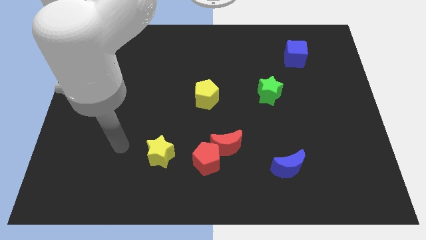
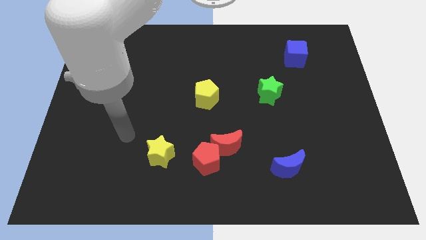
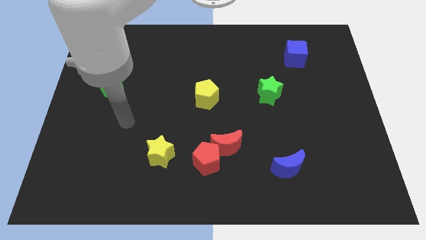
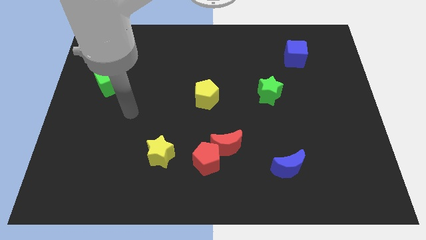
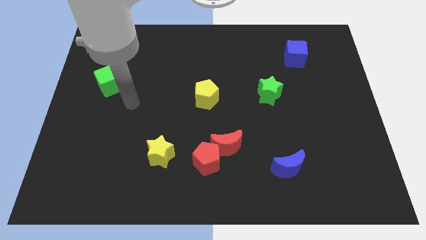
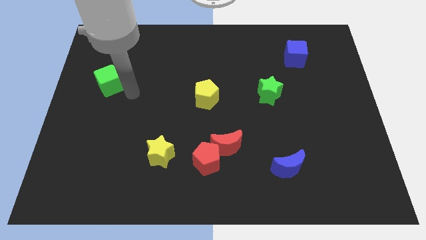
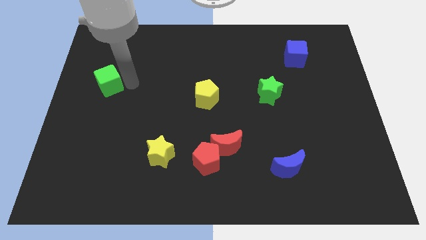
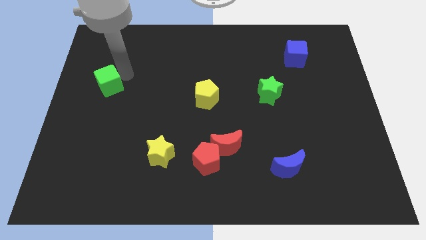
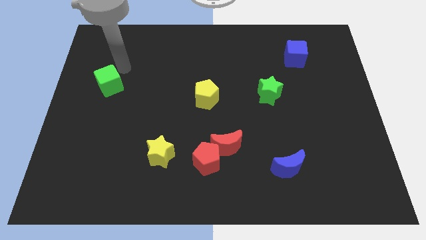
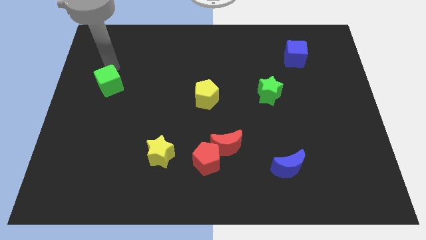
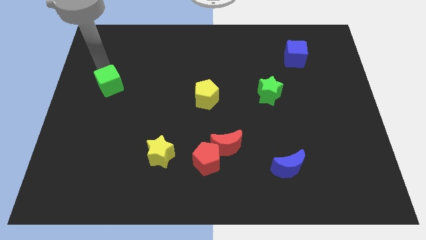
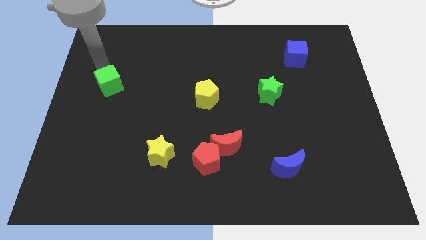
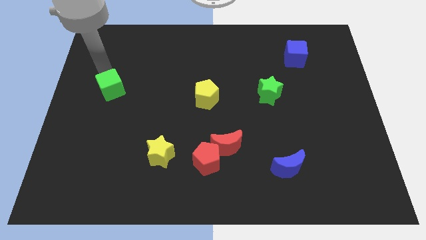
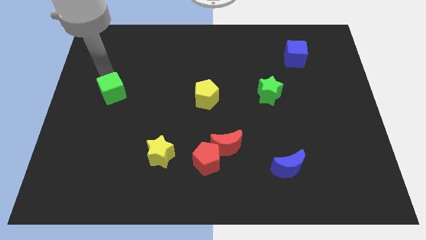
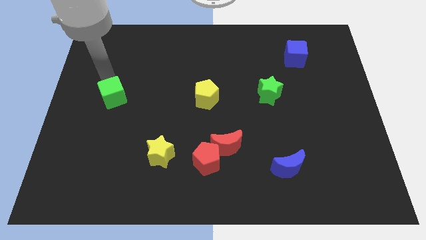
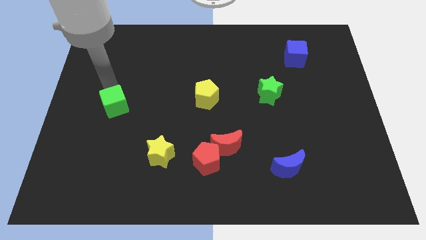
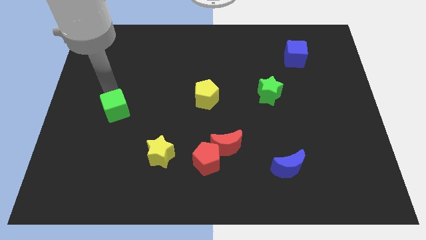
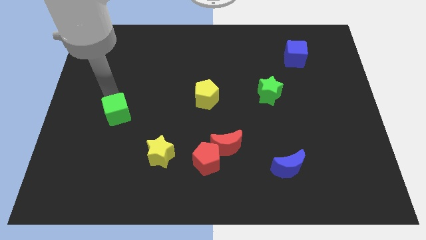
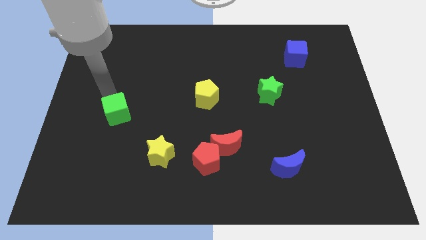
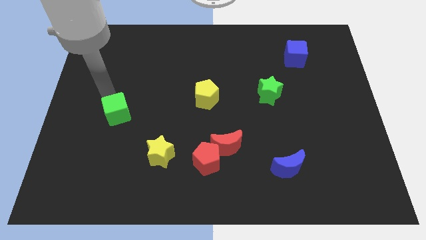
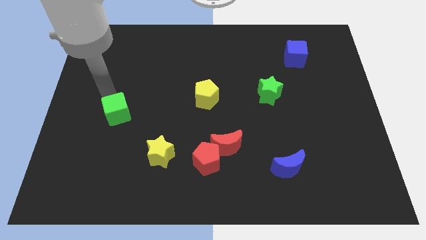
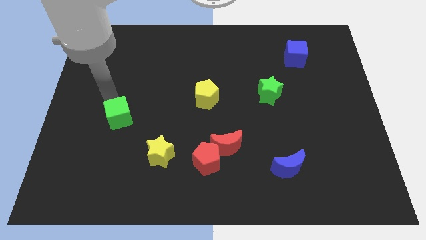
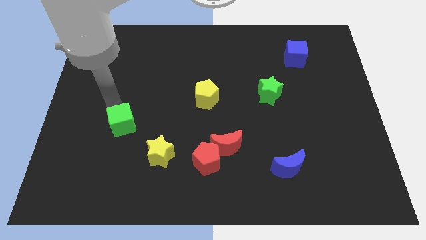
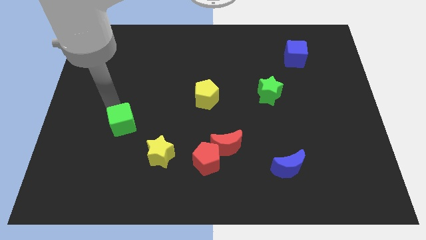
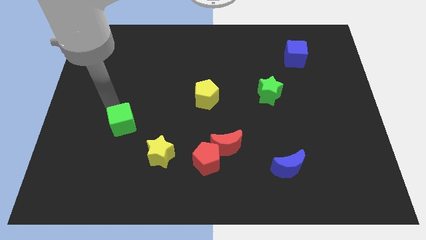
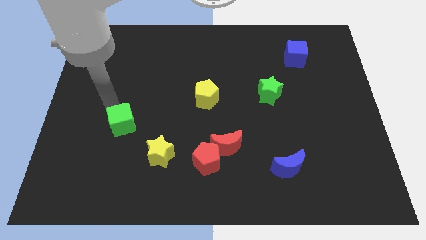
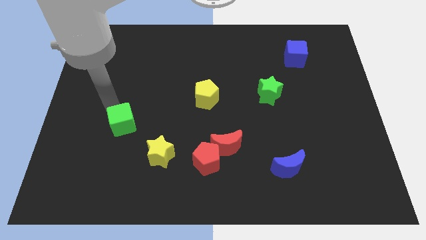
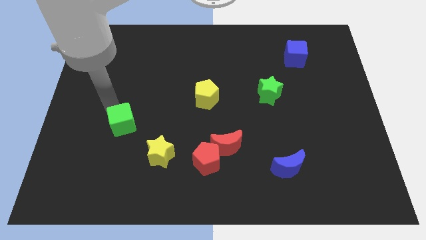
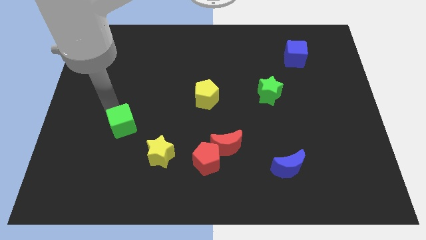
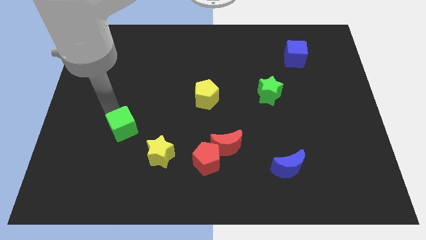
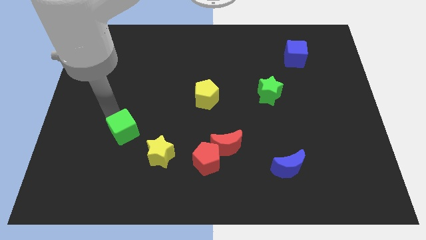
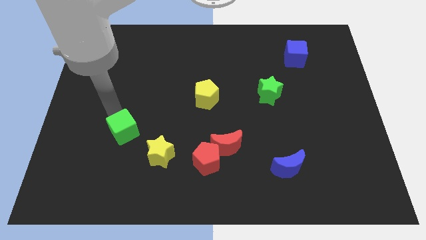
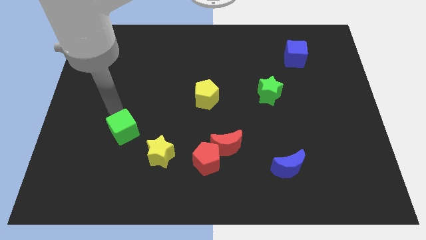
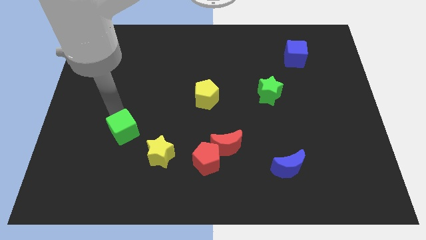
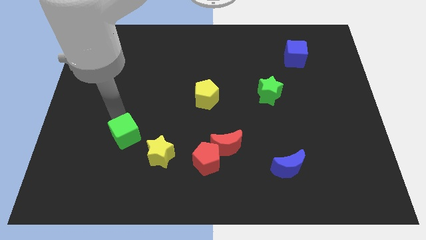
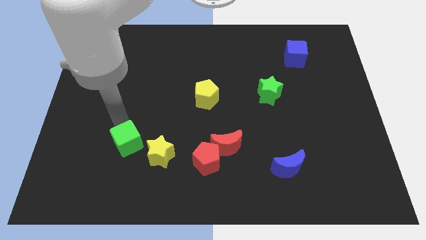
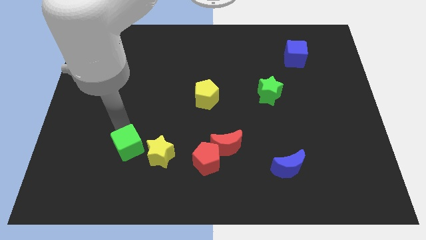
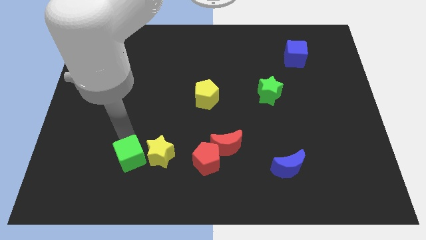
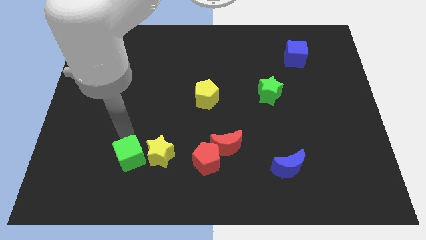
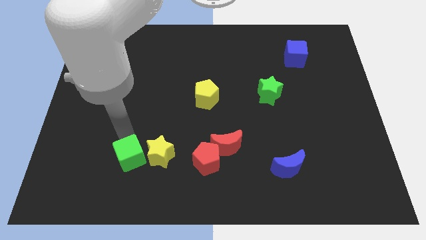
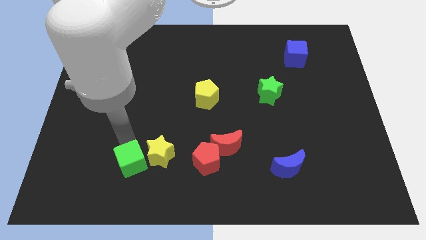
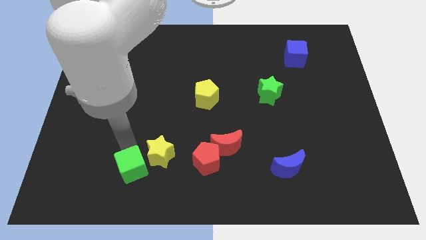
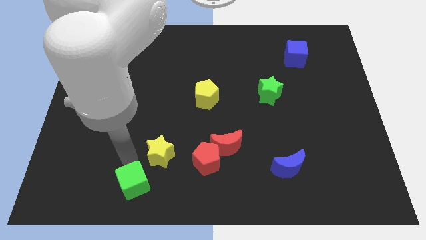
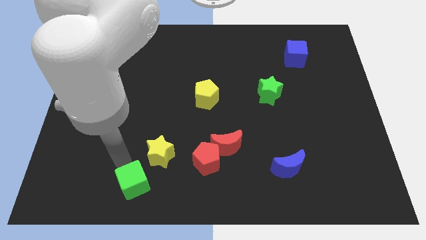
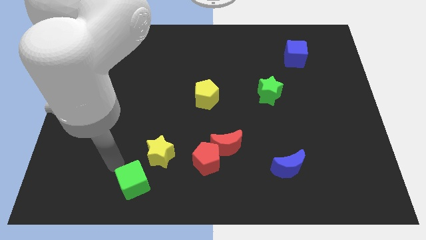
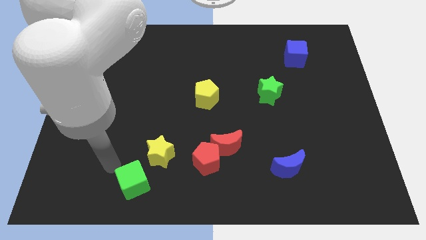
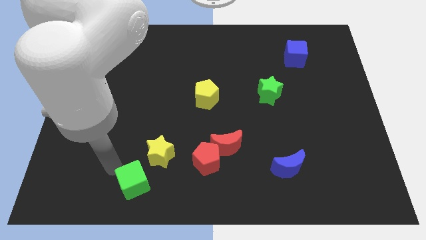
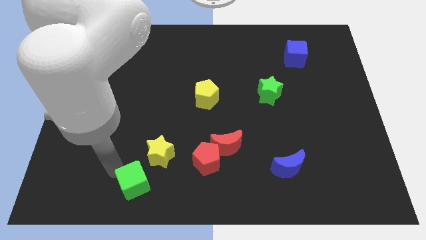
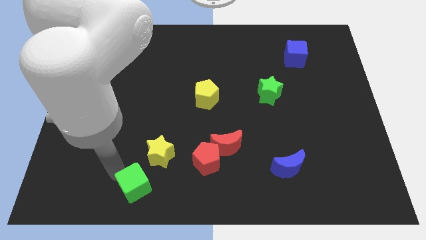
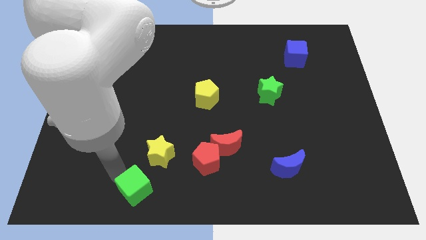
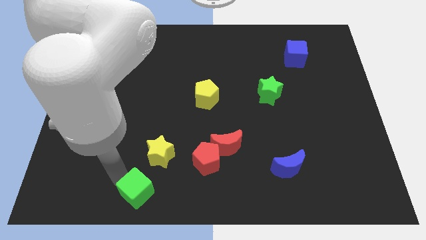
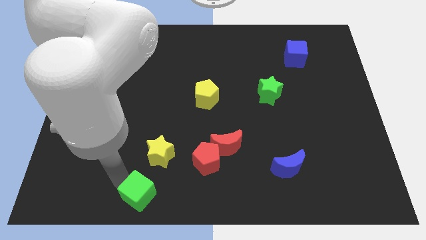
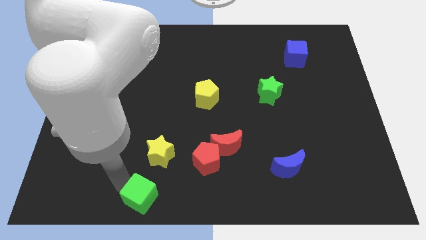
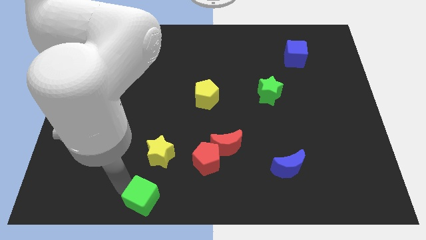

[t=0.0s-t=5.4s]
put the green cube to the bottom

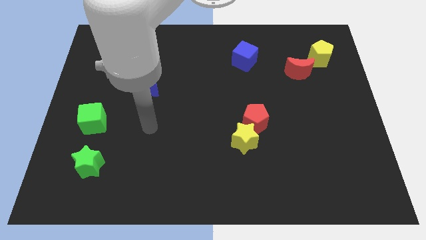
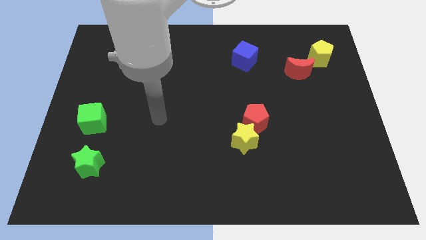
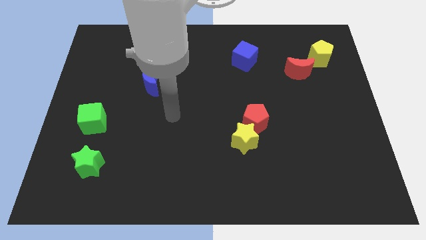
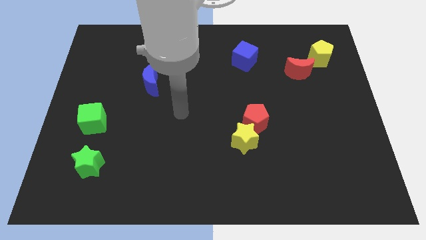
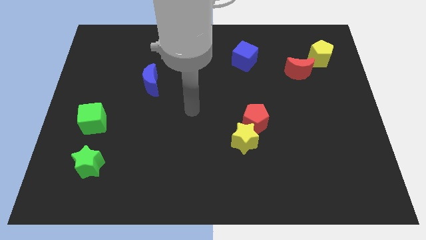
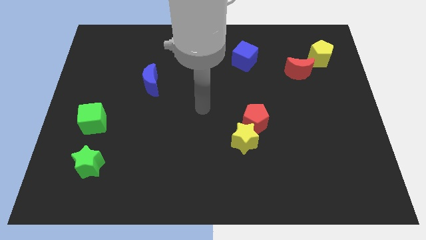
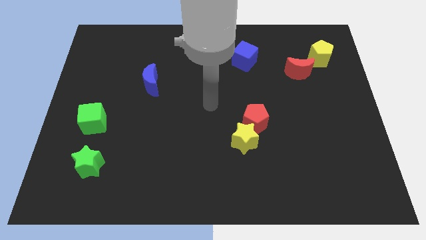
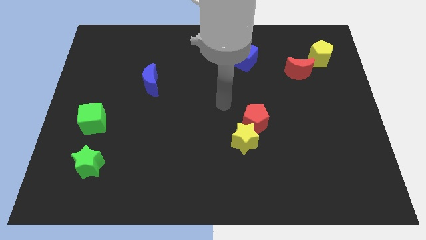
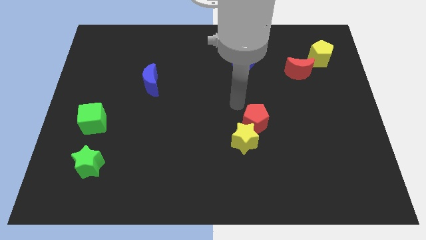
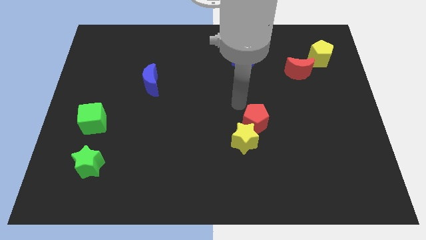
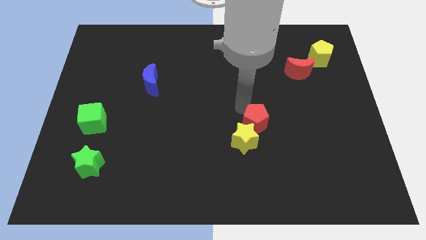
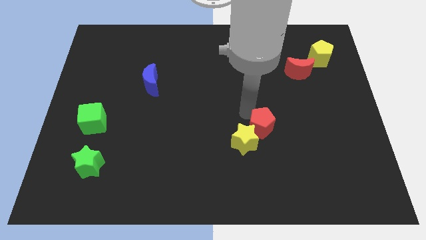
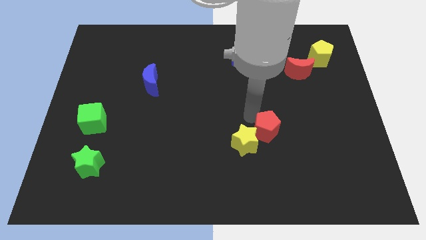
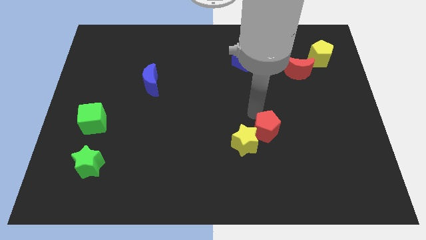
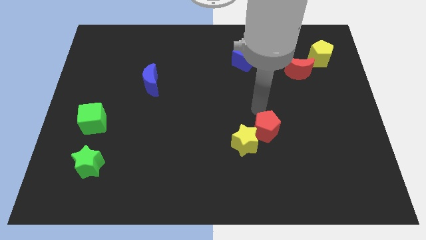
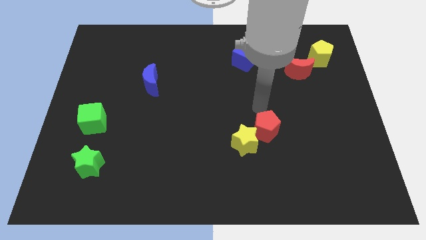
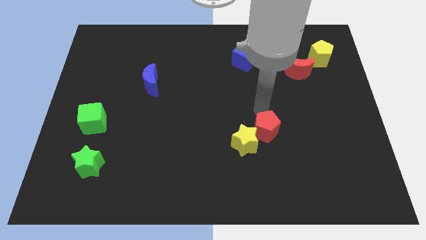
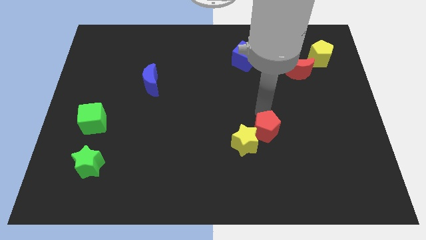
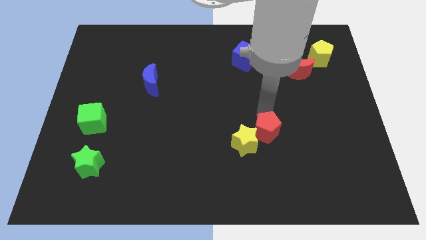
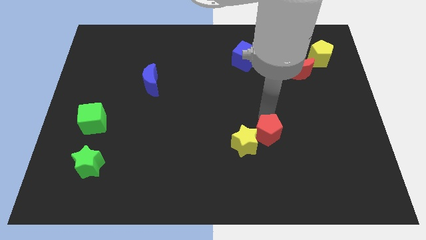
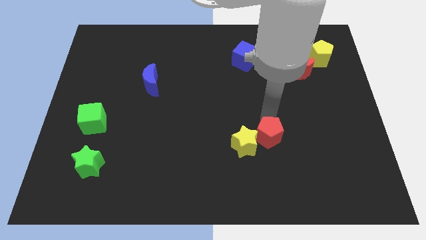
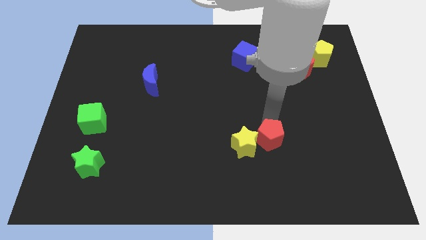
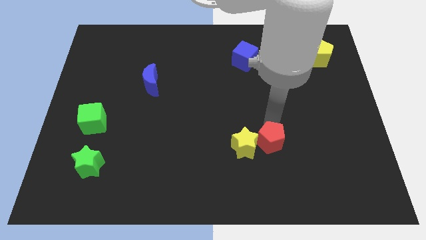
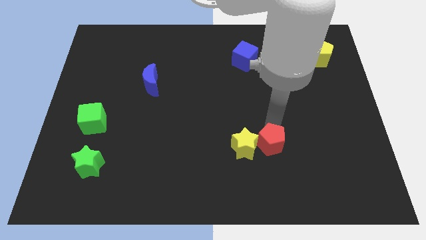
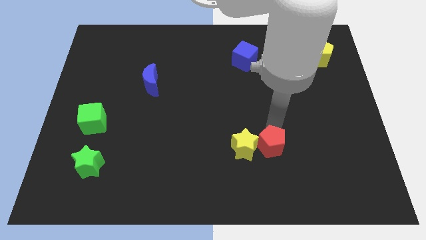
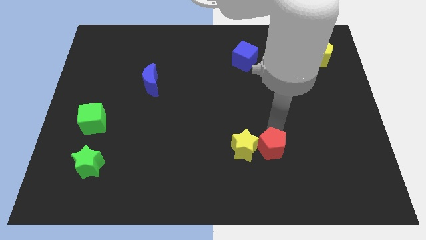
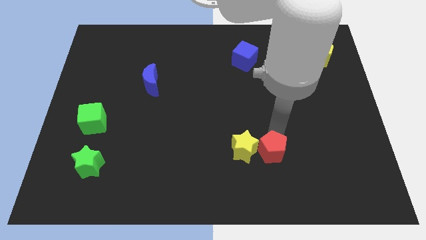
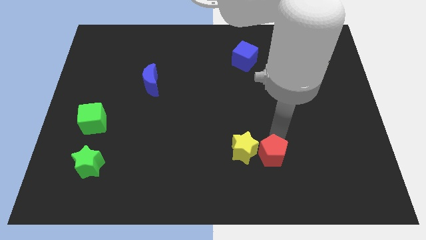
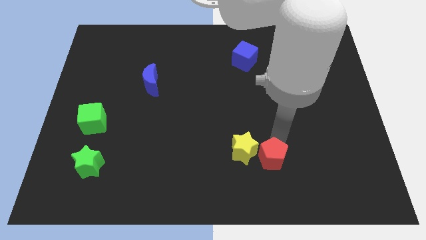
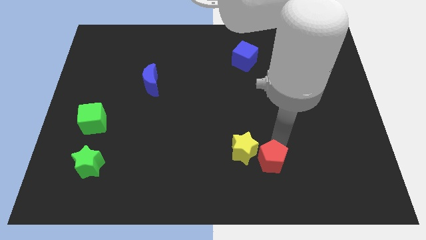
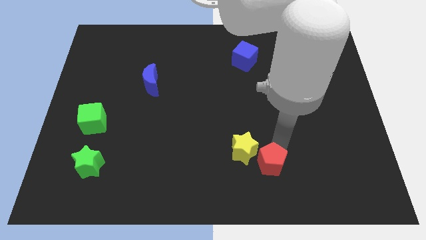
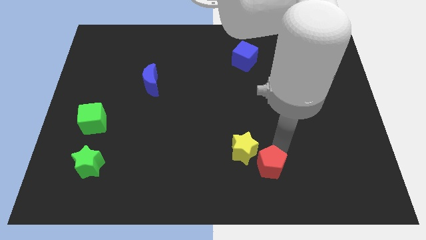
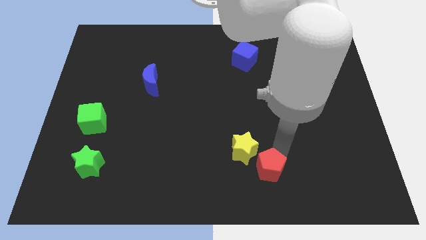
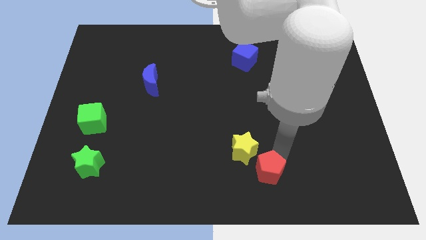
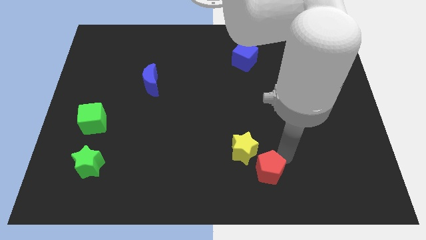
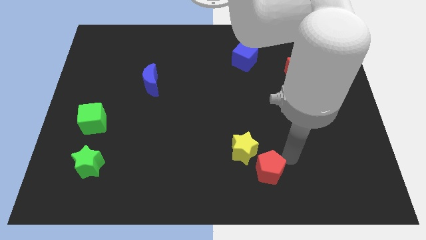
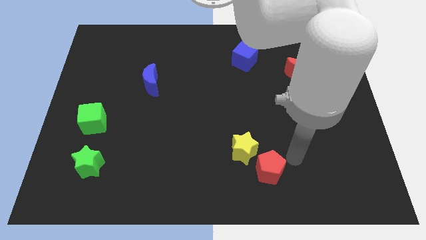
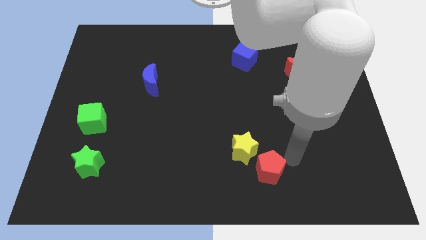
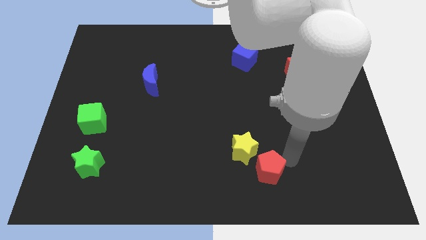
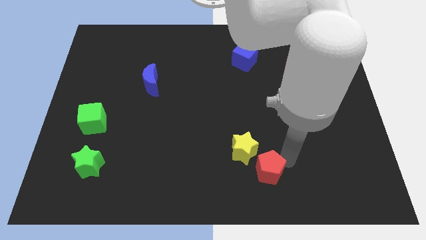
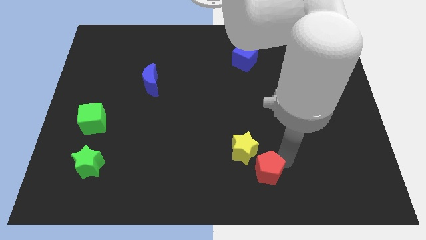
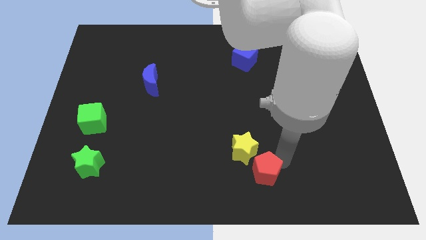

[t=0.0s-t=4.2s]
move the red pentagon to the bottom
